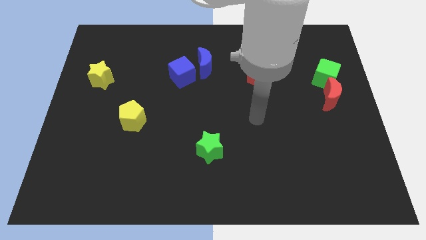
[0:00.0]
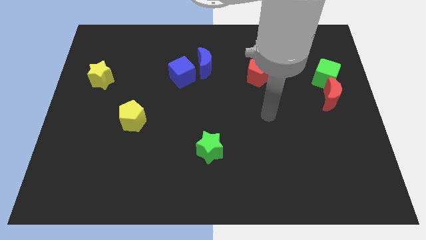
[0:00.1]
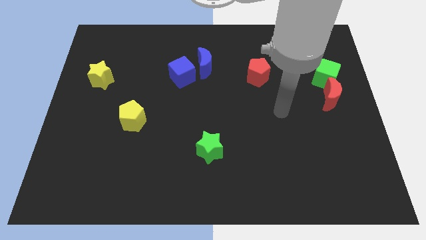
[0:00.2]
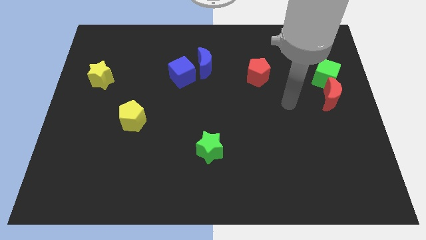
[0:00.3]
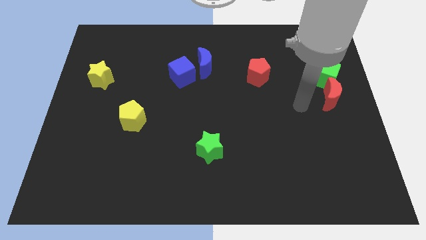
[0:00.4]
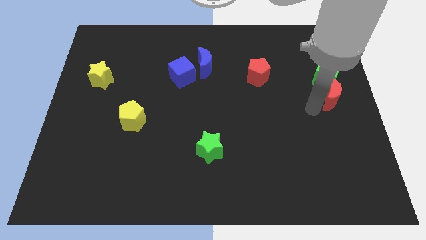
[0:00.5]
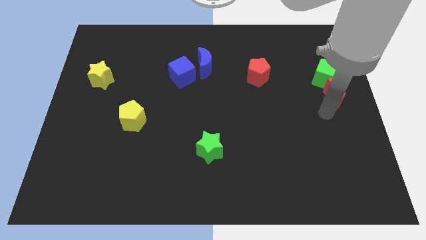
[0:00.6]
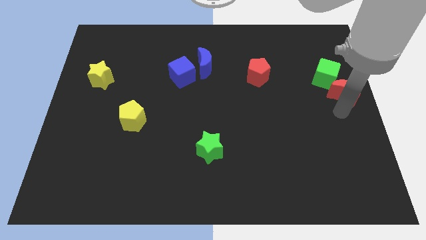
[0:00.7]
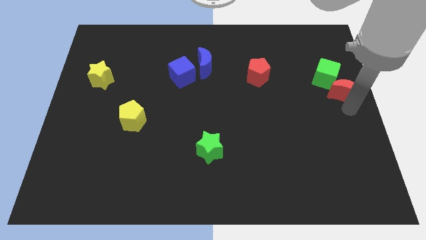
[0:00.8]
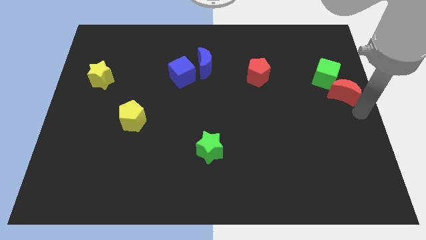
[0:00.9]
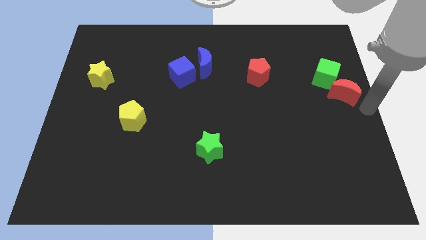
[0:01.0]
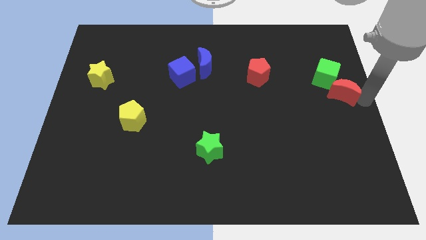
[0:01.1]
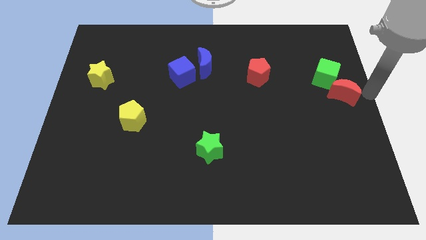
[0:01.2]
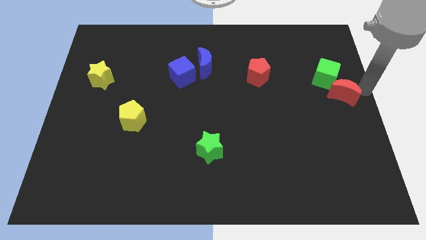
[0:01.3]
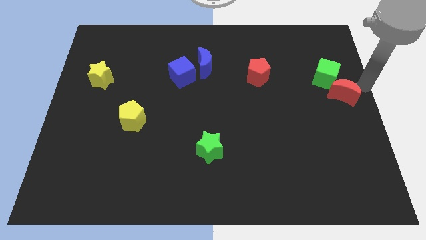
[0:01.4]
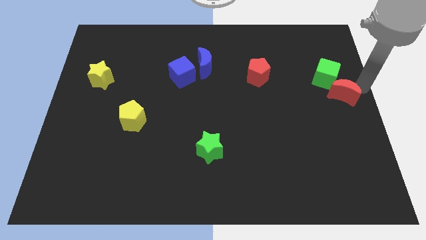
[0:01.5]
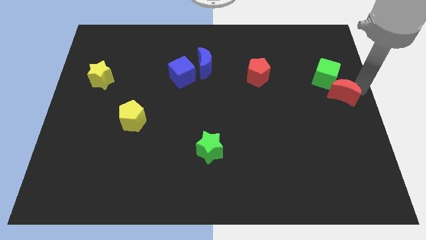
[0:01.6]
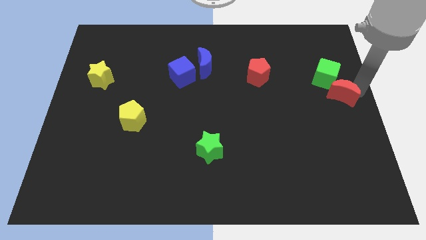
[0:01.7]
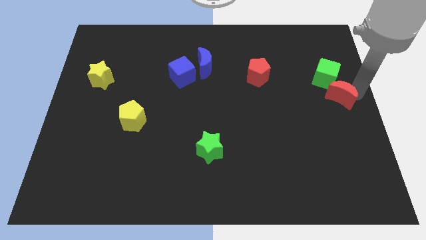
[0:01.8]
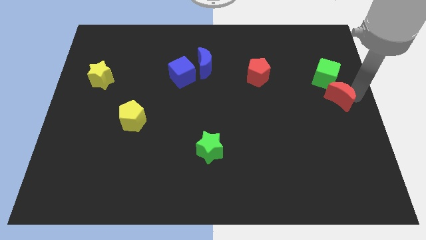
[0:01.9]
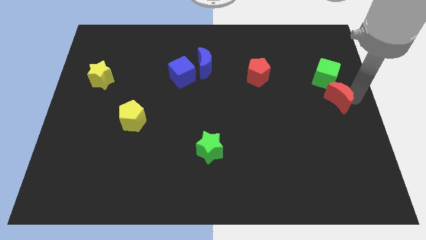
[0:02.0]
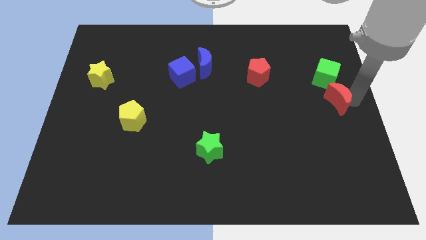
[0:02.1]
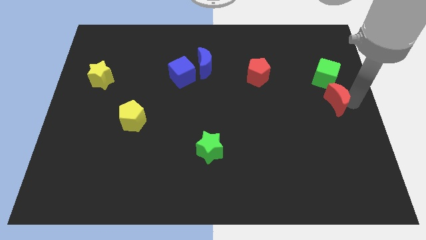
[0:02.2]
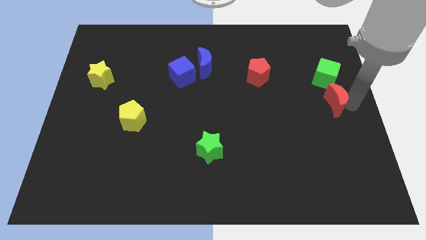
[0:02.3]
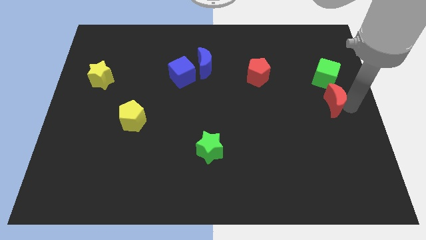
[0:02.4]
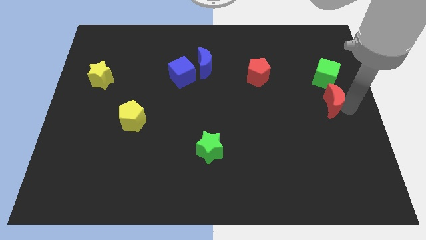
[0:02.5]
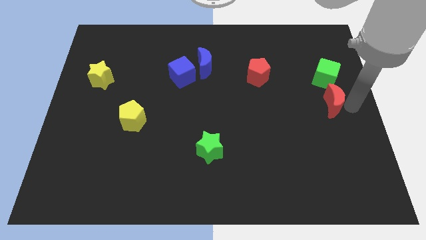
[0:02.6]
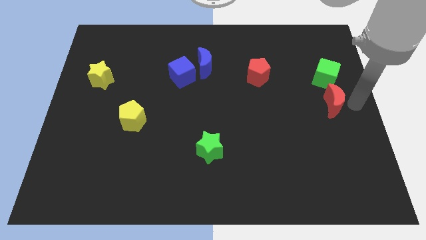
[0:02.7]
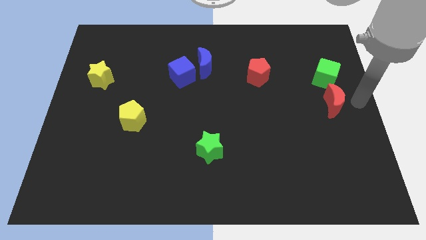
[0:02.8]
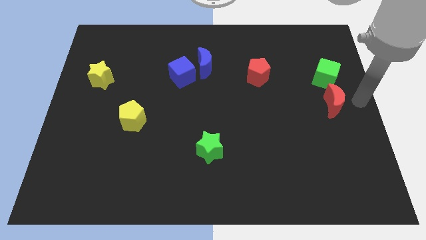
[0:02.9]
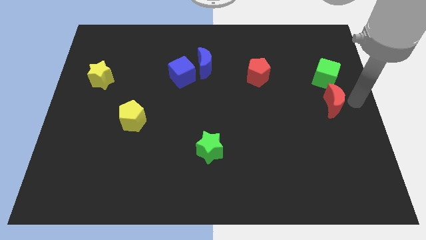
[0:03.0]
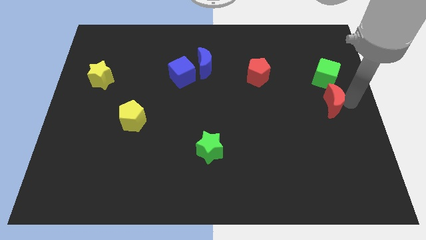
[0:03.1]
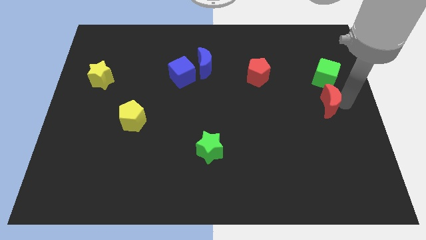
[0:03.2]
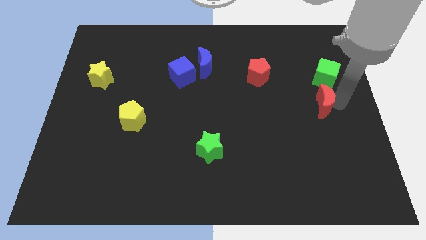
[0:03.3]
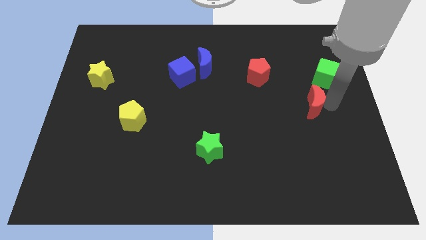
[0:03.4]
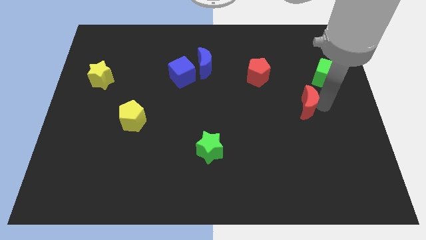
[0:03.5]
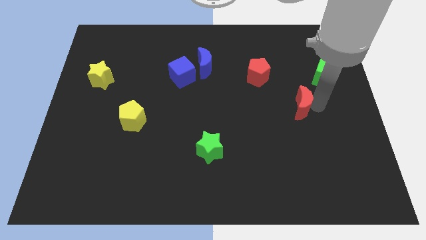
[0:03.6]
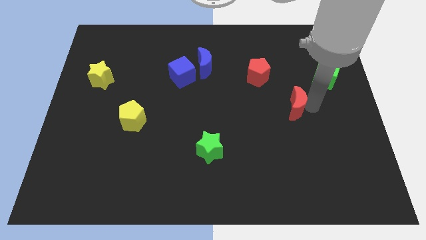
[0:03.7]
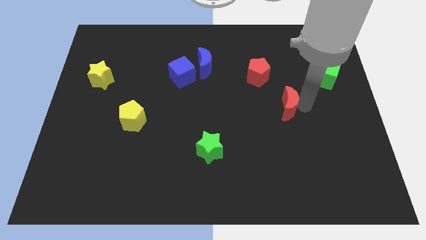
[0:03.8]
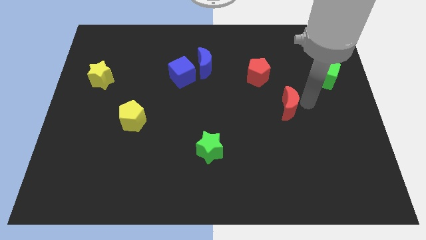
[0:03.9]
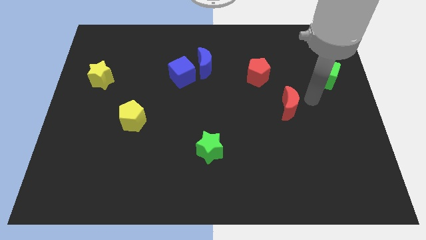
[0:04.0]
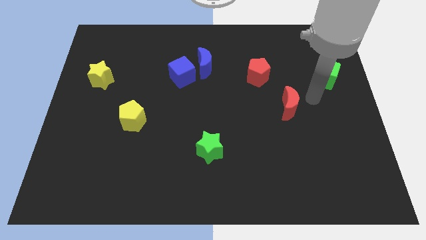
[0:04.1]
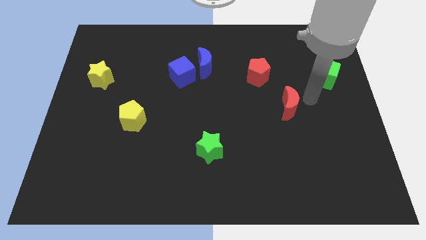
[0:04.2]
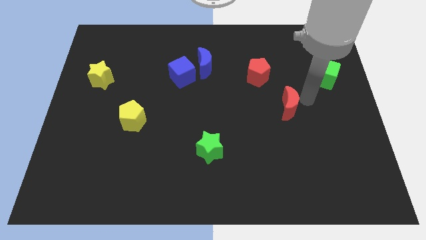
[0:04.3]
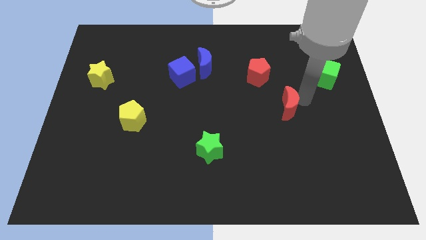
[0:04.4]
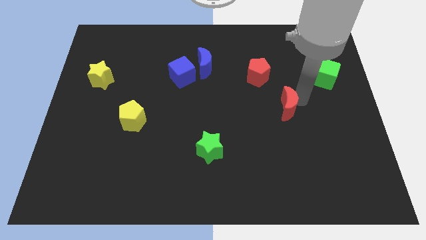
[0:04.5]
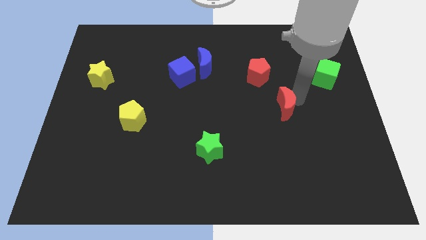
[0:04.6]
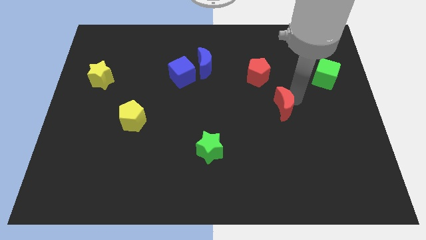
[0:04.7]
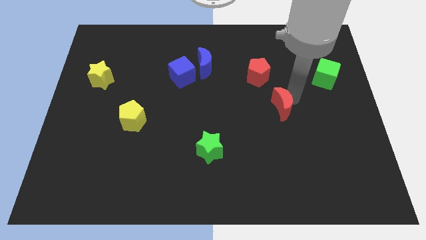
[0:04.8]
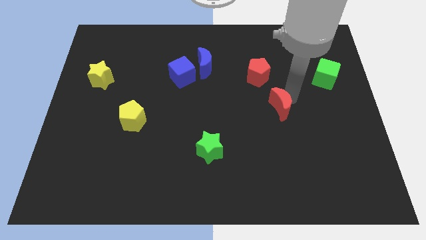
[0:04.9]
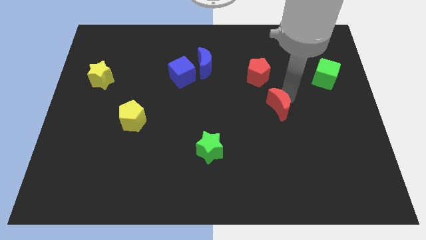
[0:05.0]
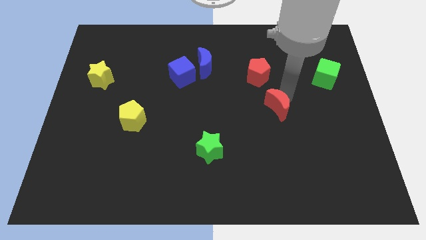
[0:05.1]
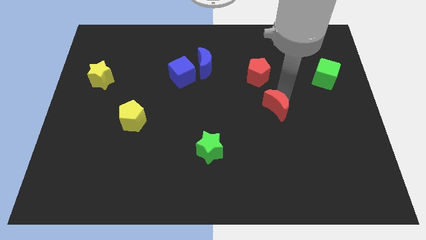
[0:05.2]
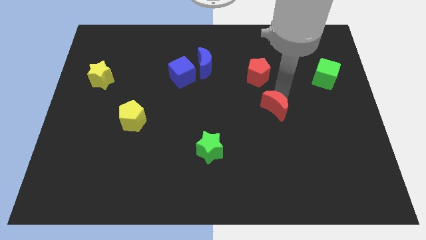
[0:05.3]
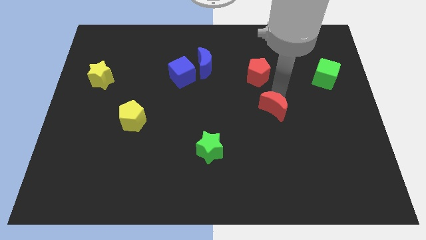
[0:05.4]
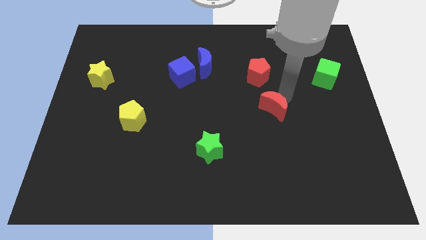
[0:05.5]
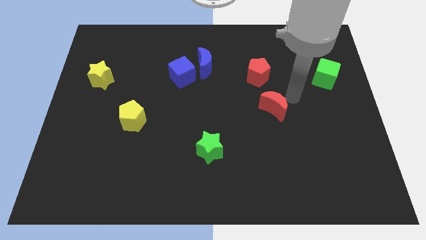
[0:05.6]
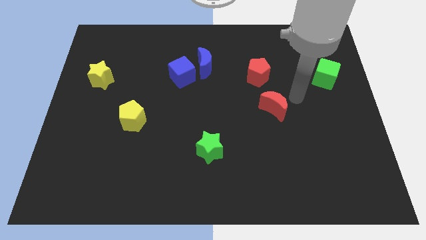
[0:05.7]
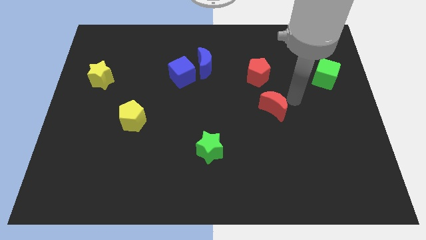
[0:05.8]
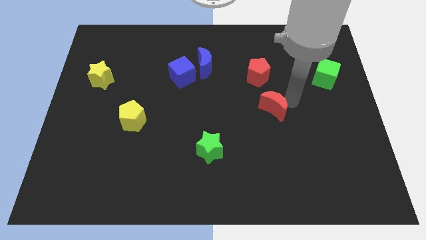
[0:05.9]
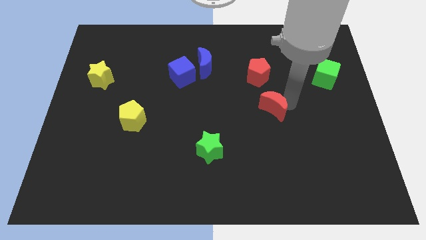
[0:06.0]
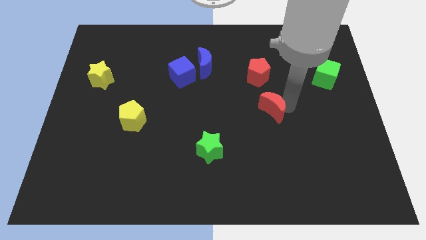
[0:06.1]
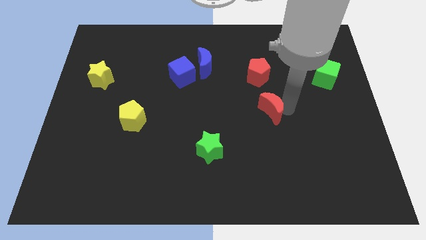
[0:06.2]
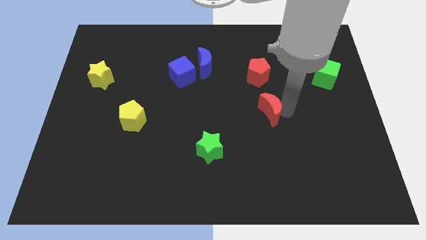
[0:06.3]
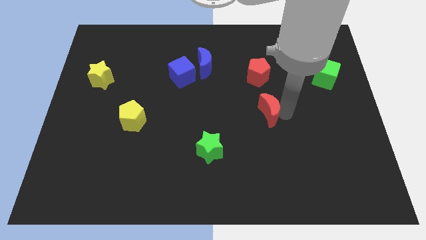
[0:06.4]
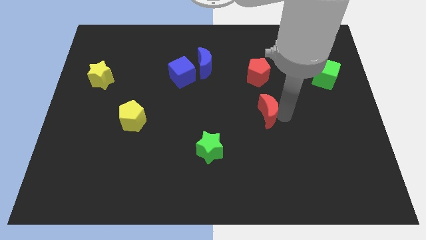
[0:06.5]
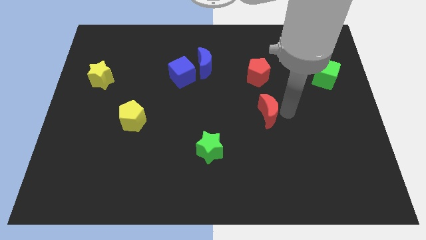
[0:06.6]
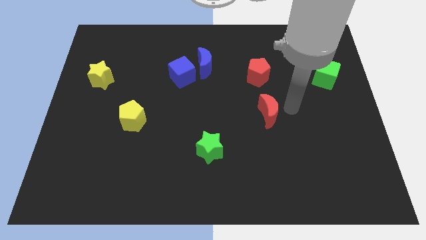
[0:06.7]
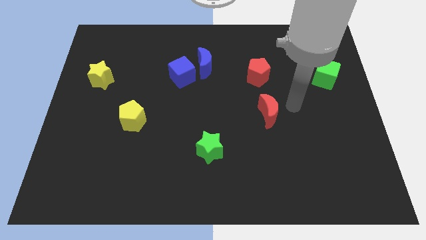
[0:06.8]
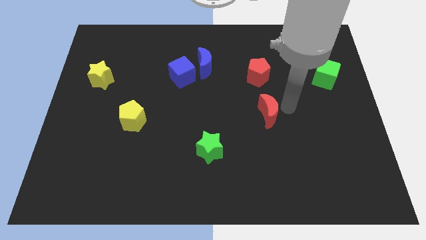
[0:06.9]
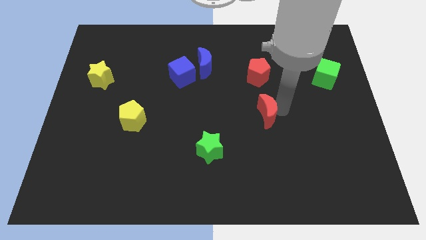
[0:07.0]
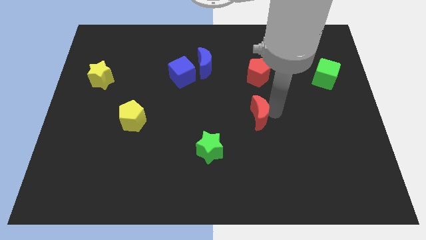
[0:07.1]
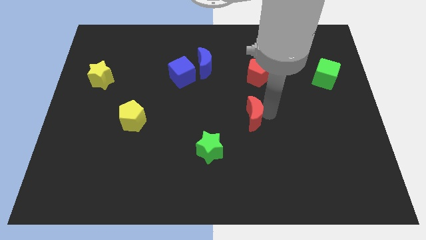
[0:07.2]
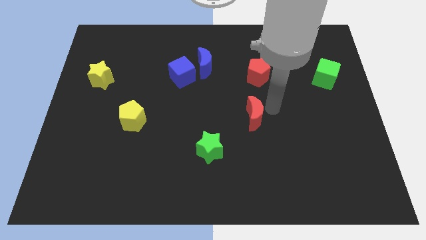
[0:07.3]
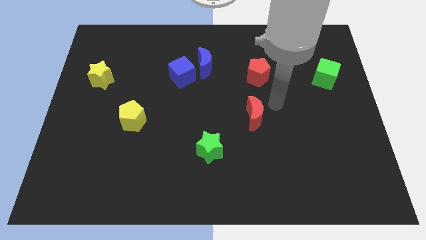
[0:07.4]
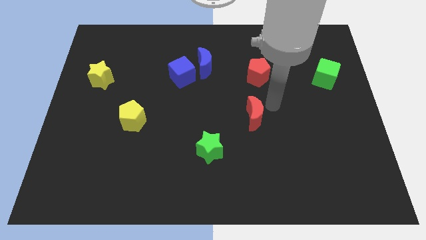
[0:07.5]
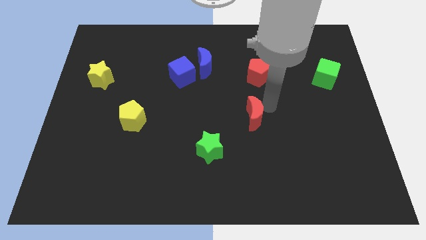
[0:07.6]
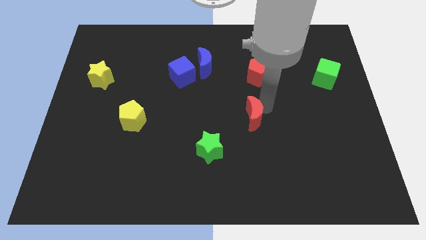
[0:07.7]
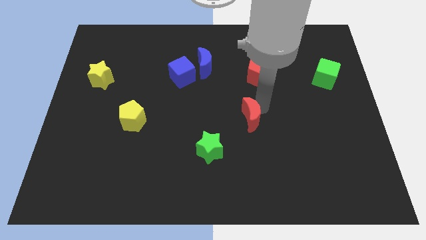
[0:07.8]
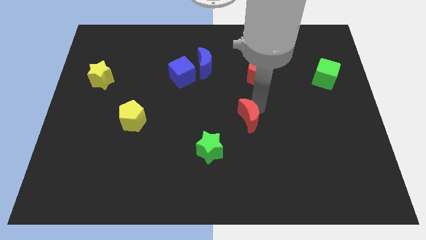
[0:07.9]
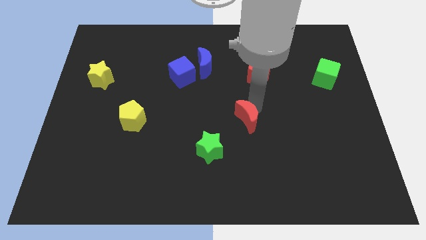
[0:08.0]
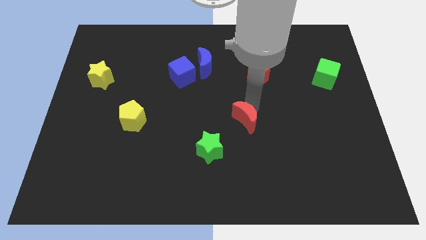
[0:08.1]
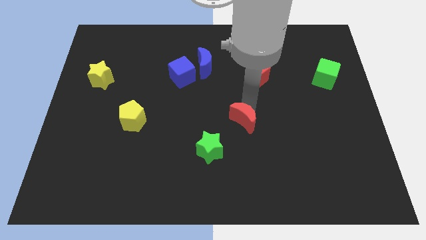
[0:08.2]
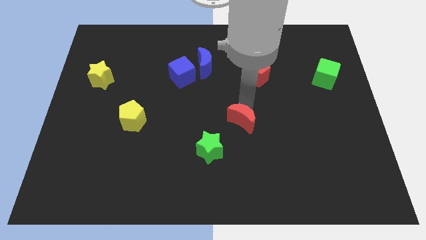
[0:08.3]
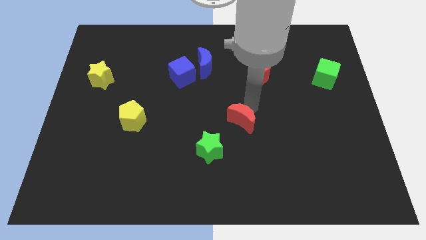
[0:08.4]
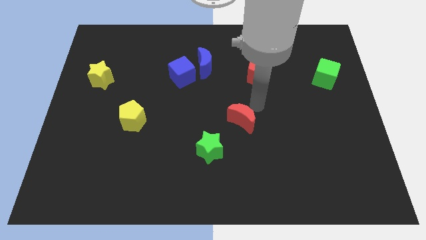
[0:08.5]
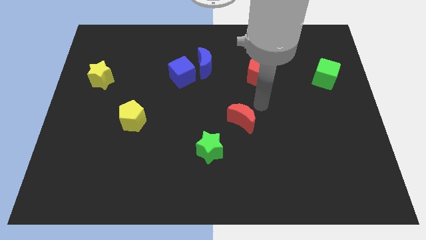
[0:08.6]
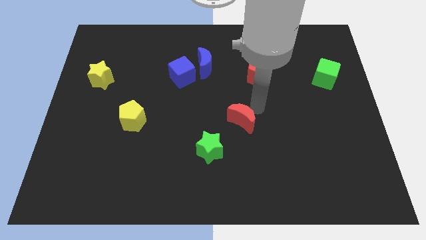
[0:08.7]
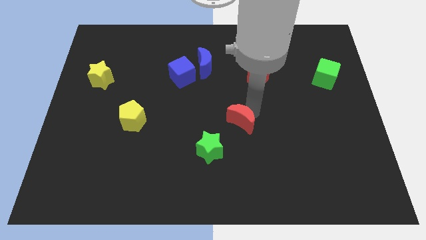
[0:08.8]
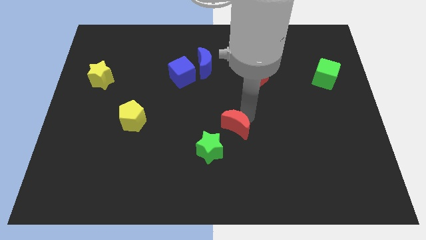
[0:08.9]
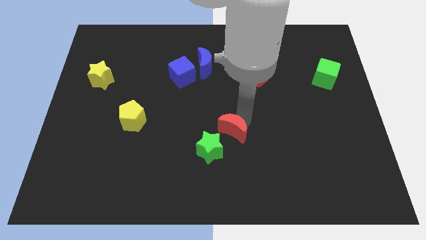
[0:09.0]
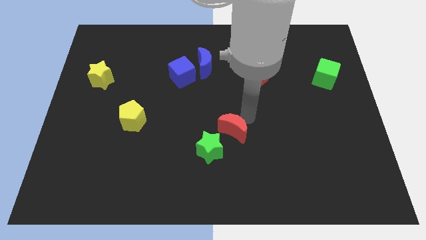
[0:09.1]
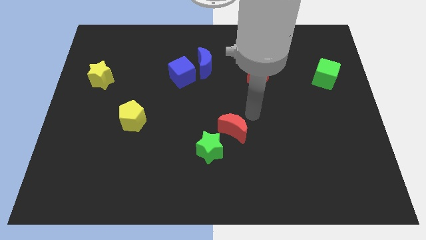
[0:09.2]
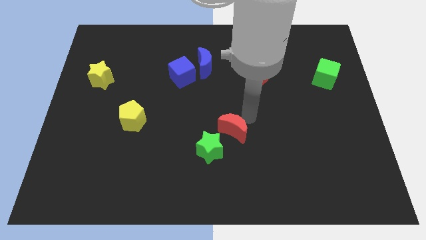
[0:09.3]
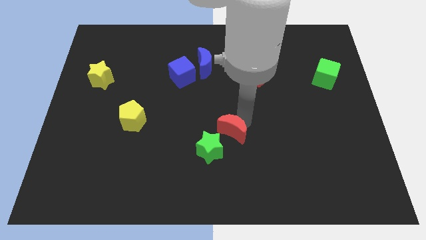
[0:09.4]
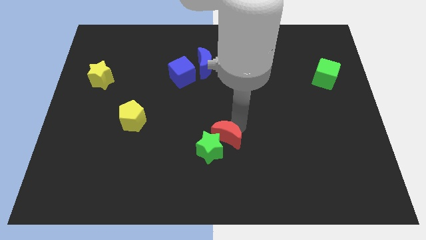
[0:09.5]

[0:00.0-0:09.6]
push the red moon towards the green star
